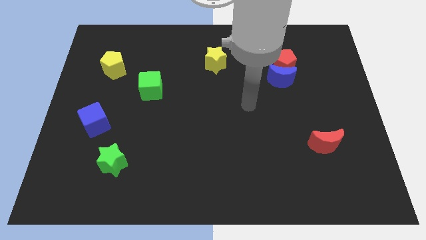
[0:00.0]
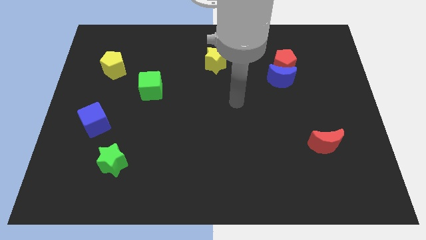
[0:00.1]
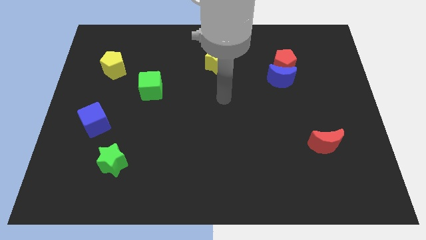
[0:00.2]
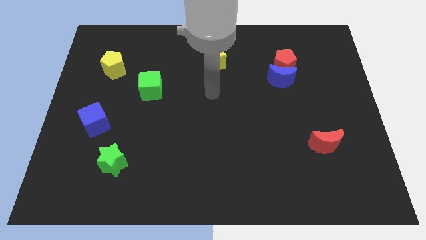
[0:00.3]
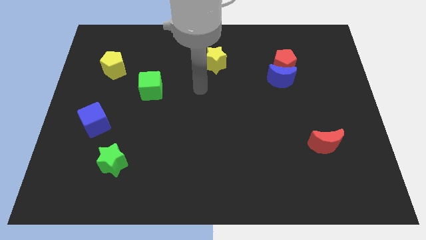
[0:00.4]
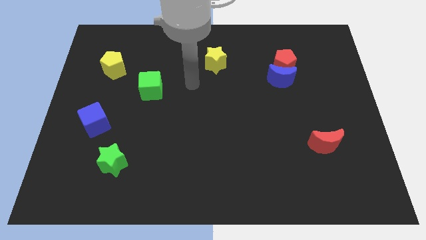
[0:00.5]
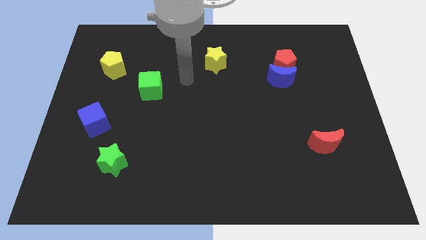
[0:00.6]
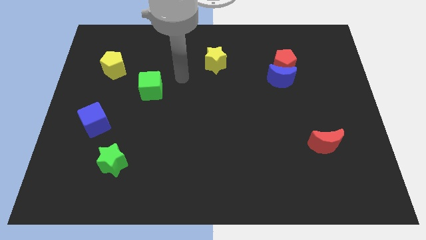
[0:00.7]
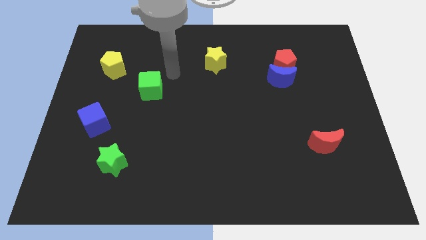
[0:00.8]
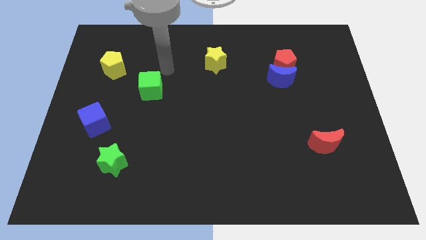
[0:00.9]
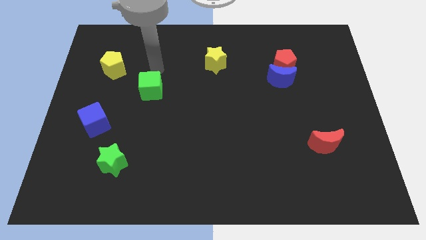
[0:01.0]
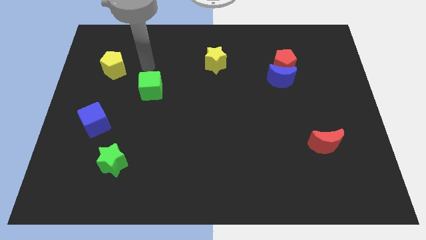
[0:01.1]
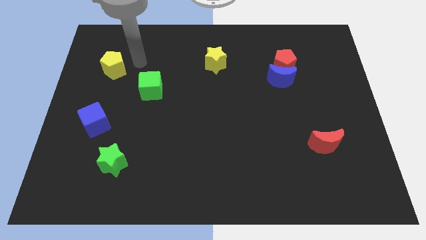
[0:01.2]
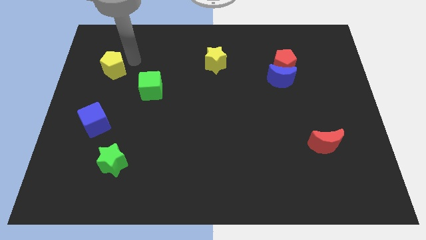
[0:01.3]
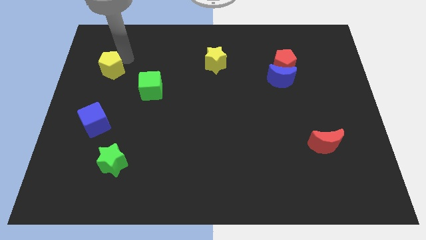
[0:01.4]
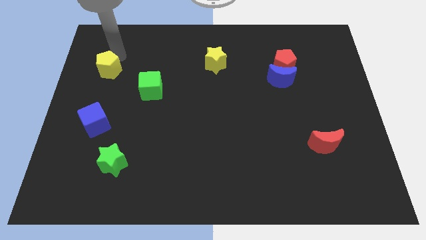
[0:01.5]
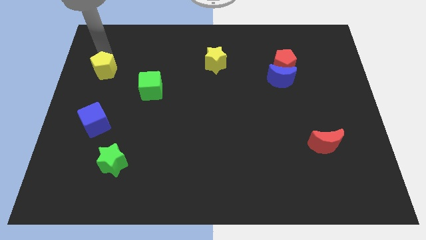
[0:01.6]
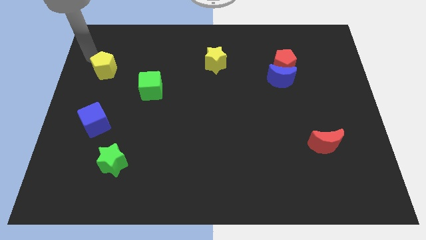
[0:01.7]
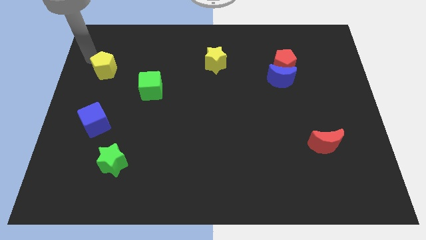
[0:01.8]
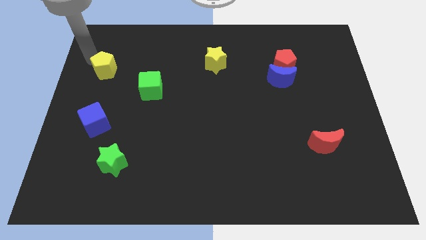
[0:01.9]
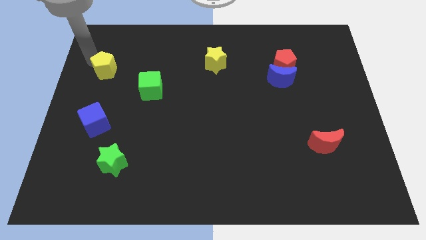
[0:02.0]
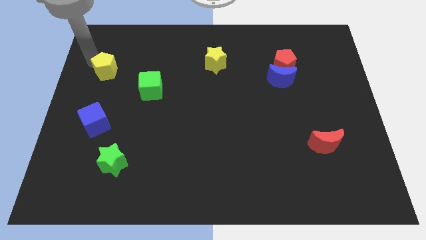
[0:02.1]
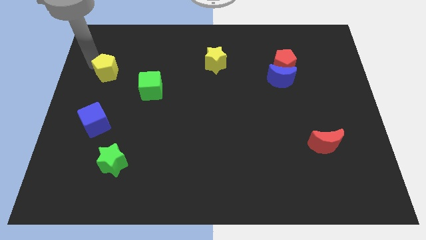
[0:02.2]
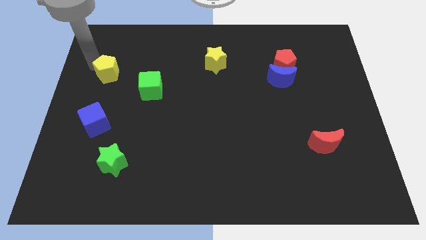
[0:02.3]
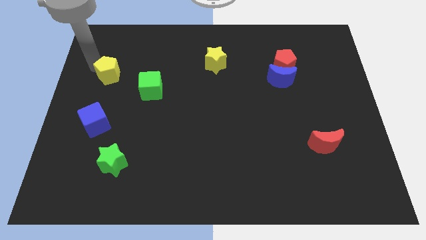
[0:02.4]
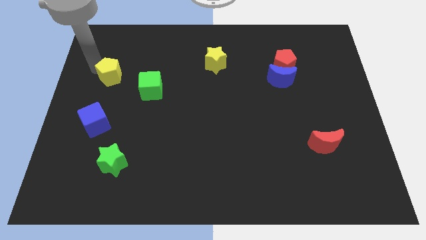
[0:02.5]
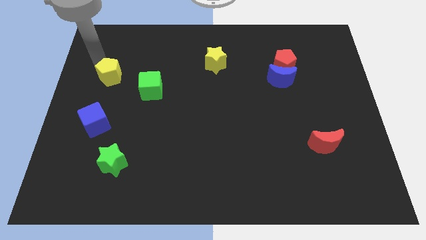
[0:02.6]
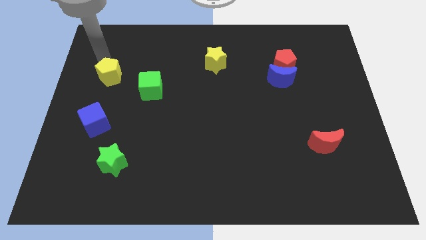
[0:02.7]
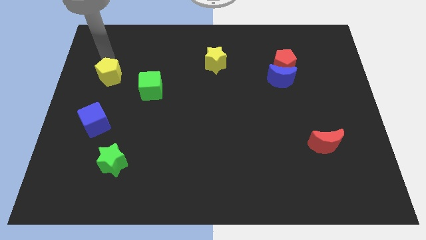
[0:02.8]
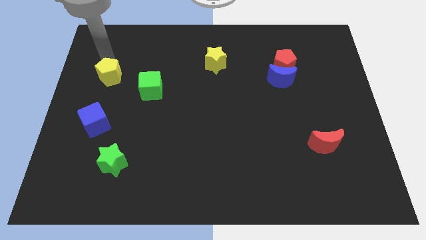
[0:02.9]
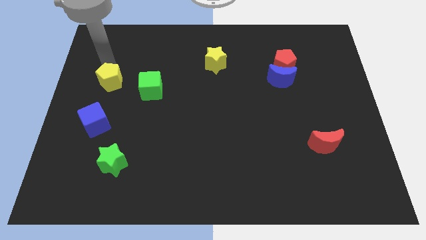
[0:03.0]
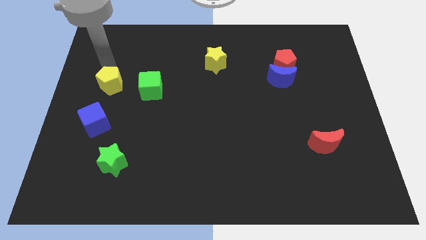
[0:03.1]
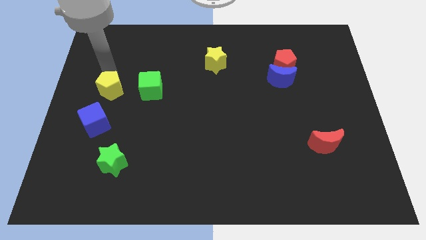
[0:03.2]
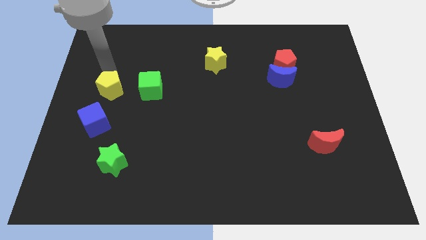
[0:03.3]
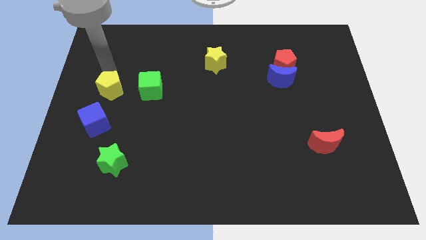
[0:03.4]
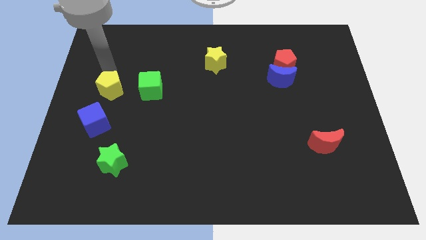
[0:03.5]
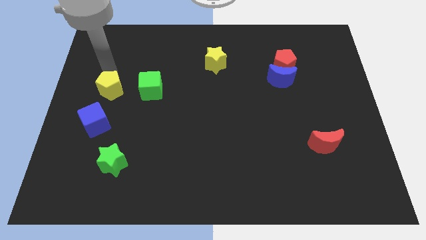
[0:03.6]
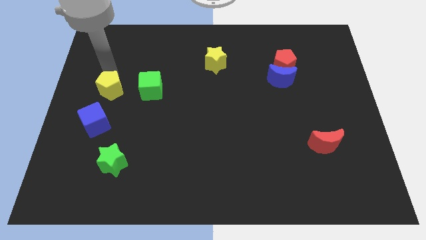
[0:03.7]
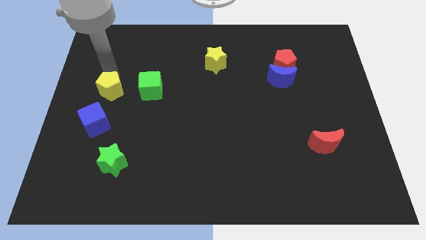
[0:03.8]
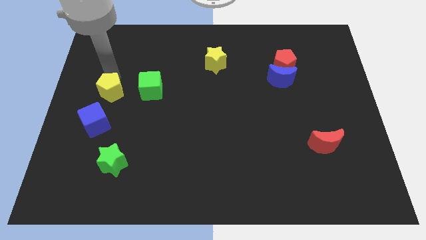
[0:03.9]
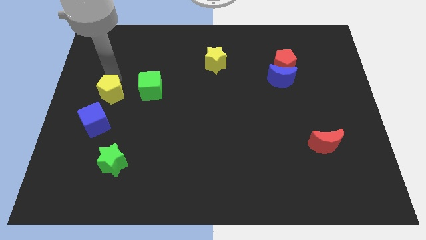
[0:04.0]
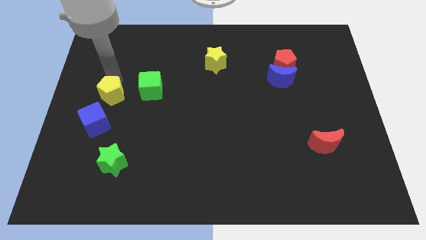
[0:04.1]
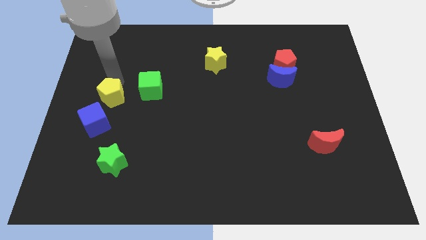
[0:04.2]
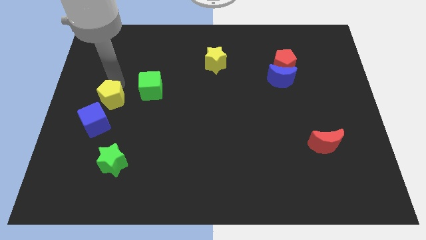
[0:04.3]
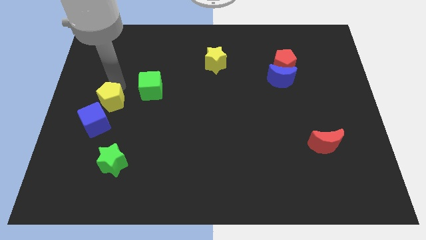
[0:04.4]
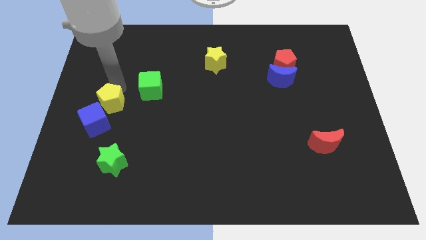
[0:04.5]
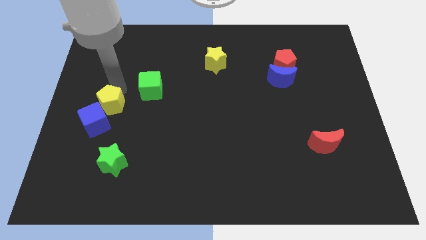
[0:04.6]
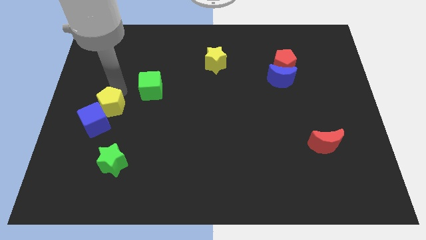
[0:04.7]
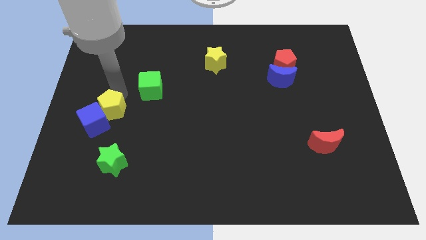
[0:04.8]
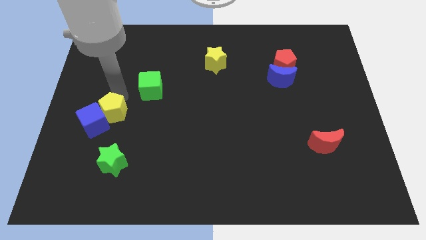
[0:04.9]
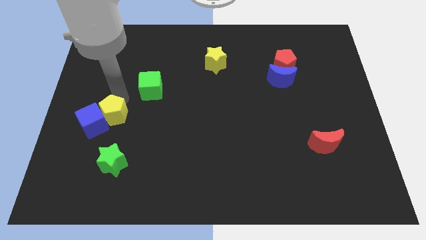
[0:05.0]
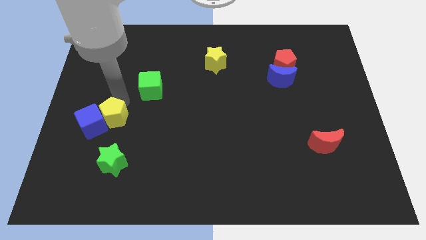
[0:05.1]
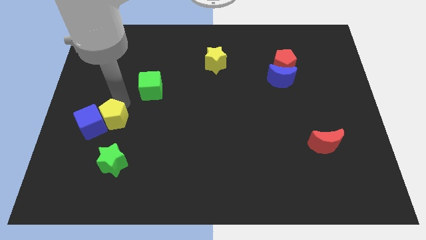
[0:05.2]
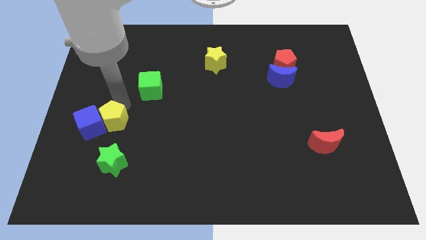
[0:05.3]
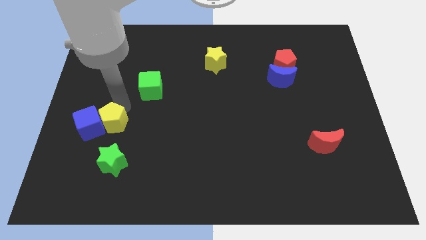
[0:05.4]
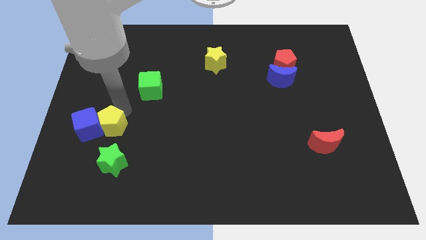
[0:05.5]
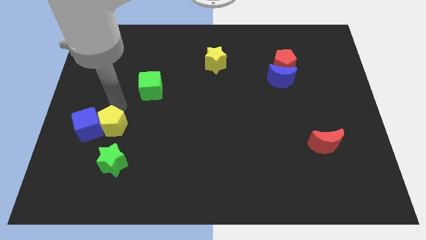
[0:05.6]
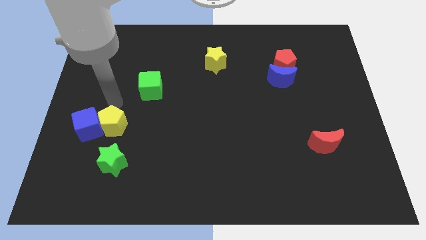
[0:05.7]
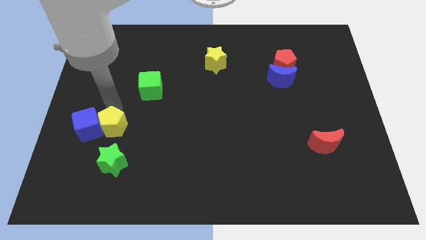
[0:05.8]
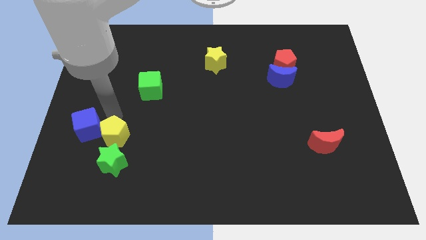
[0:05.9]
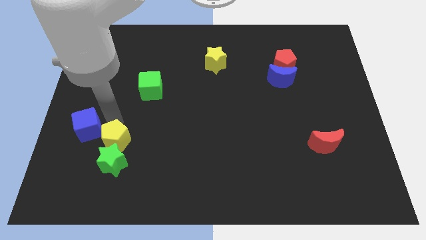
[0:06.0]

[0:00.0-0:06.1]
slide the yellow pentagon next to the green star

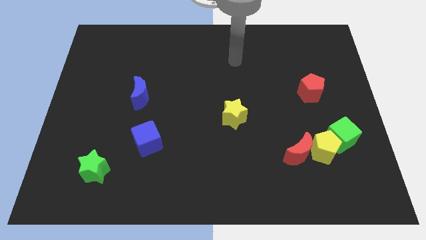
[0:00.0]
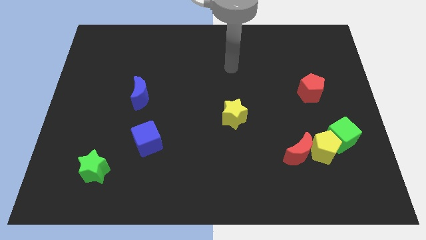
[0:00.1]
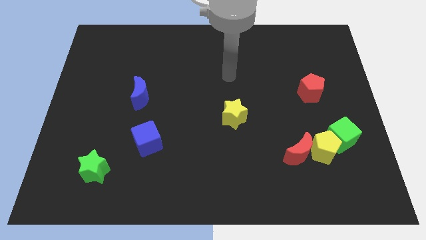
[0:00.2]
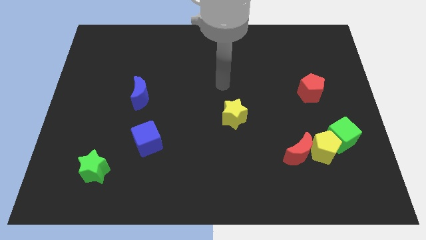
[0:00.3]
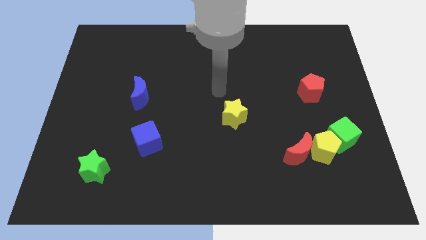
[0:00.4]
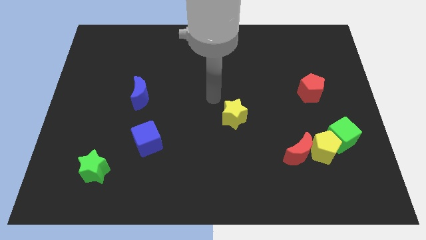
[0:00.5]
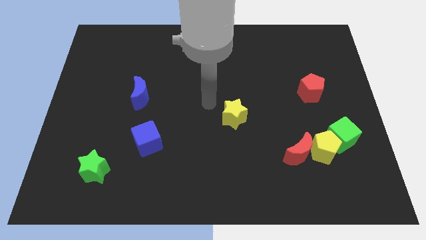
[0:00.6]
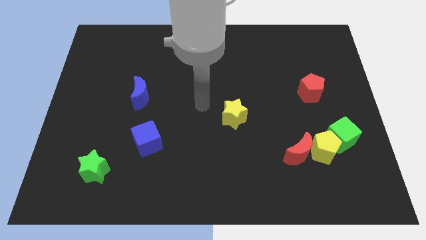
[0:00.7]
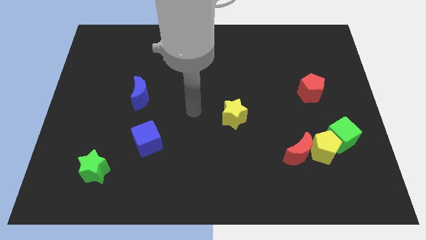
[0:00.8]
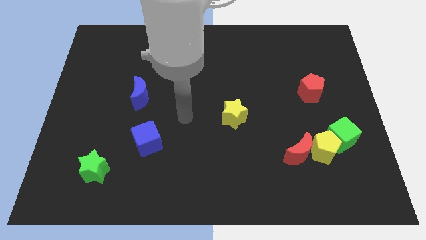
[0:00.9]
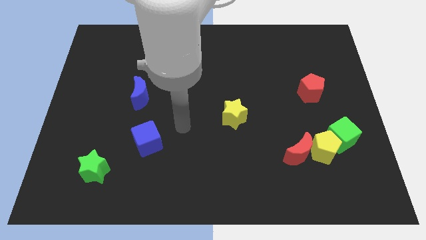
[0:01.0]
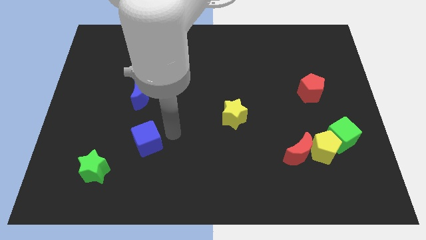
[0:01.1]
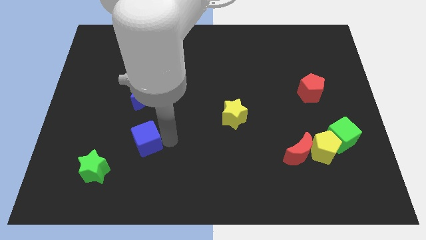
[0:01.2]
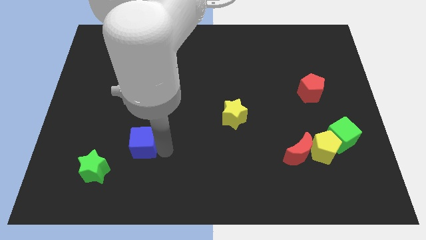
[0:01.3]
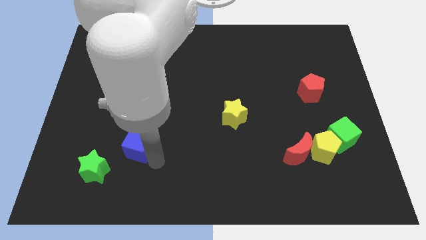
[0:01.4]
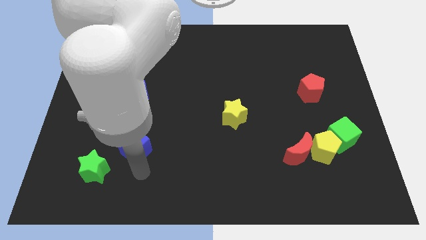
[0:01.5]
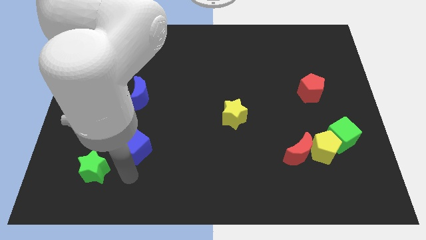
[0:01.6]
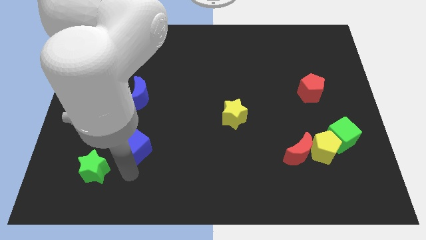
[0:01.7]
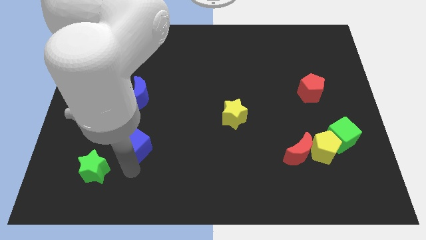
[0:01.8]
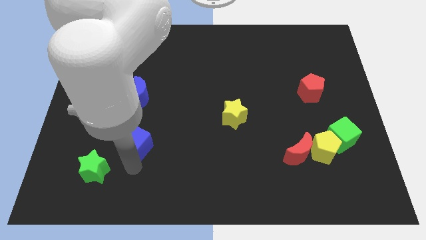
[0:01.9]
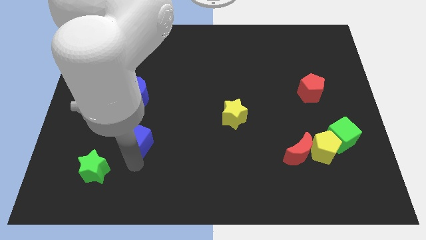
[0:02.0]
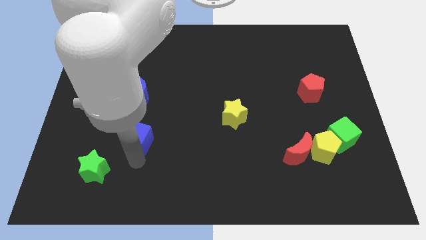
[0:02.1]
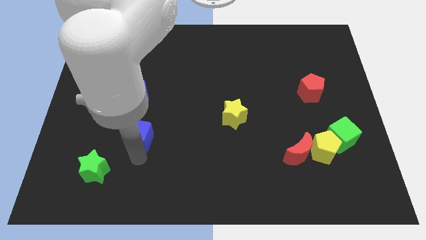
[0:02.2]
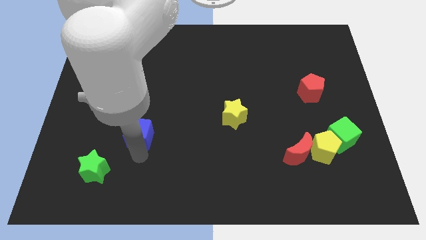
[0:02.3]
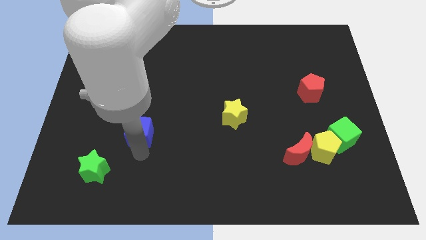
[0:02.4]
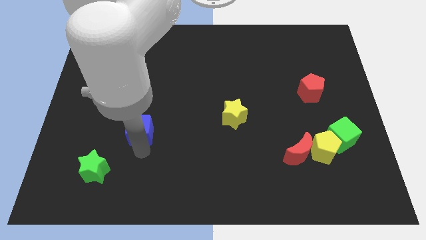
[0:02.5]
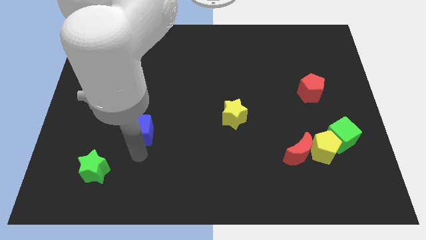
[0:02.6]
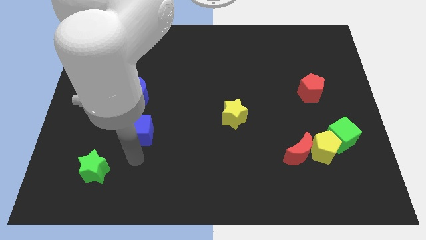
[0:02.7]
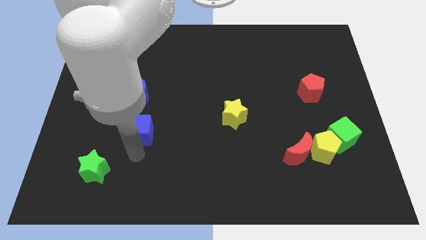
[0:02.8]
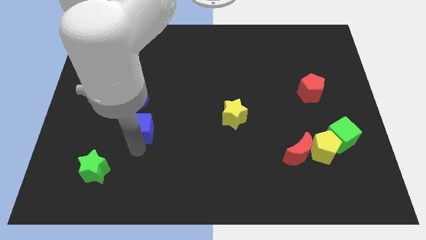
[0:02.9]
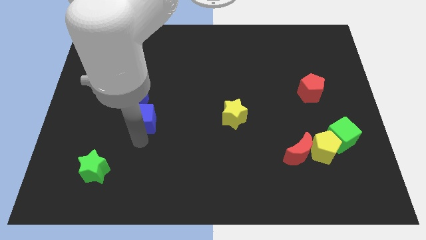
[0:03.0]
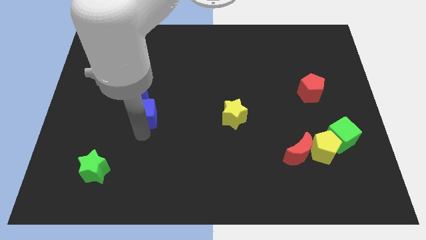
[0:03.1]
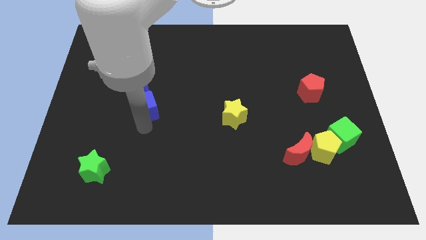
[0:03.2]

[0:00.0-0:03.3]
put the blue cube next to the blue moon
